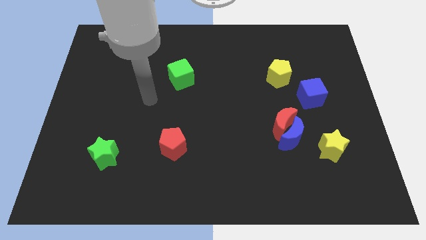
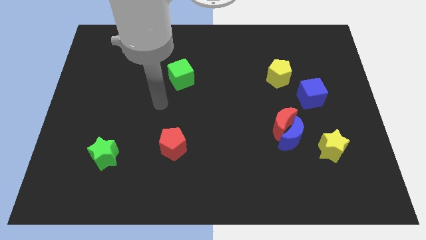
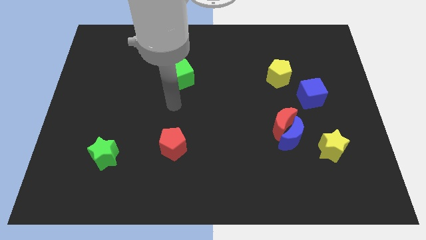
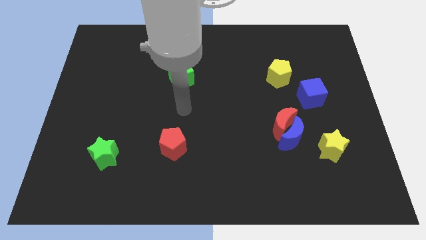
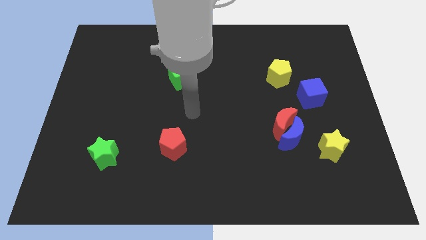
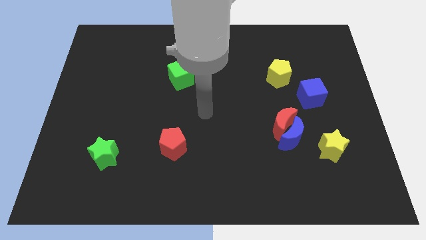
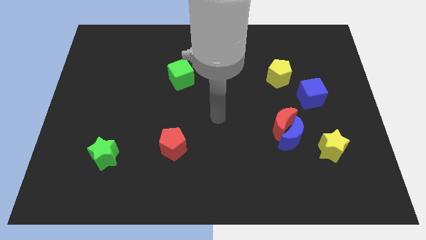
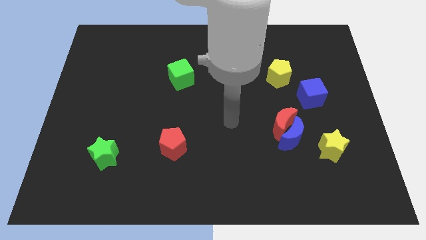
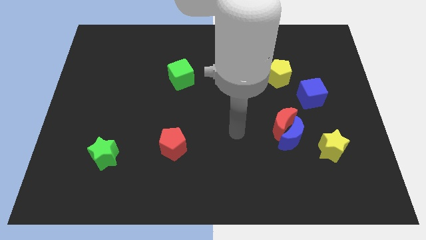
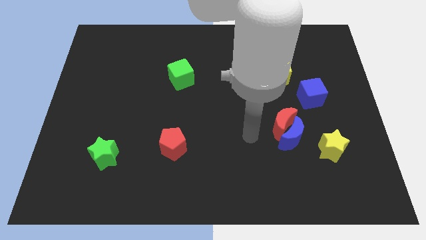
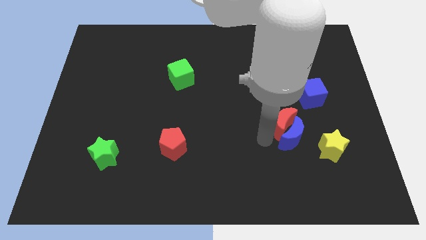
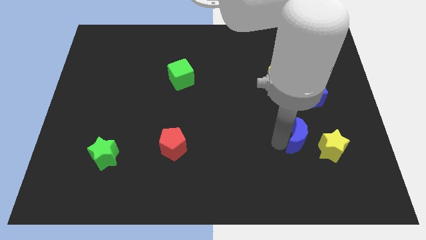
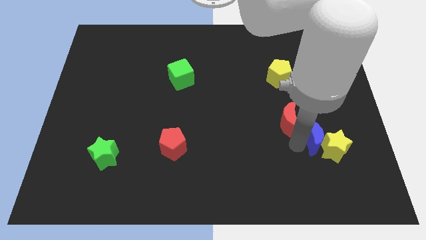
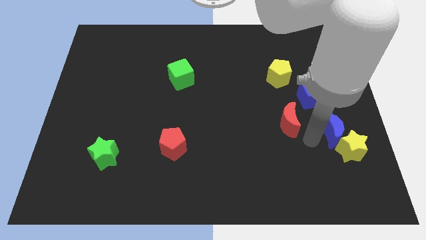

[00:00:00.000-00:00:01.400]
separate the red moon from the blue moon

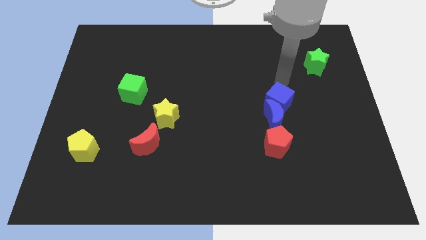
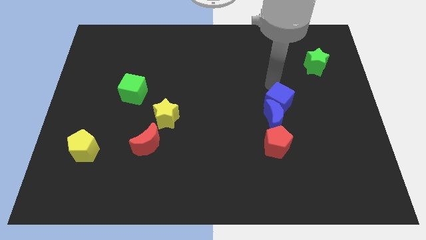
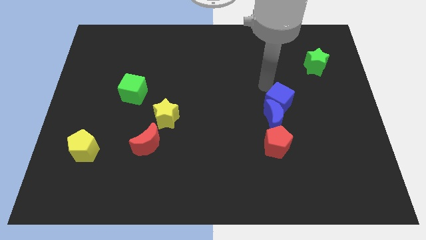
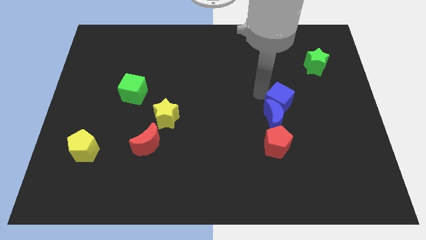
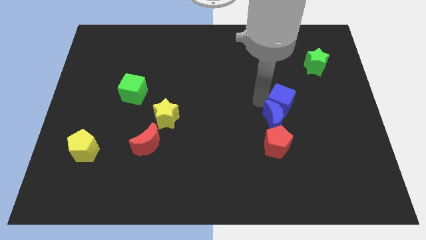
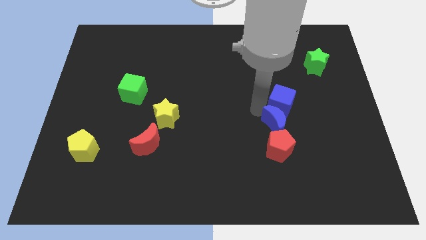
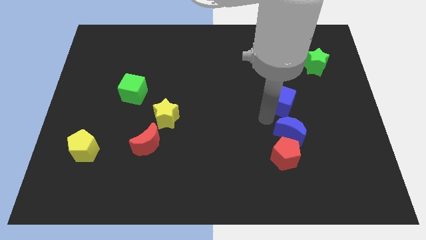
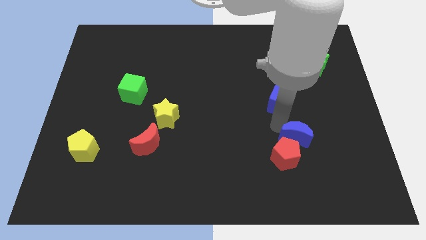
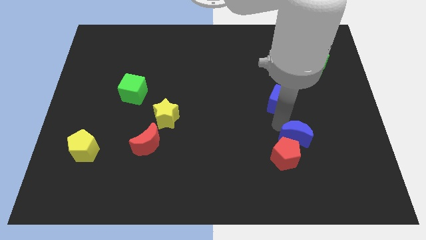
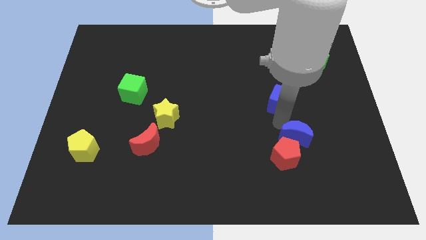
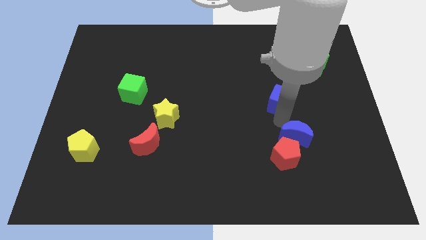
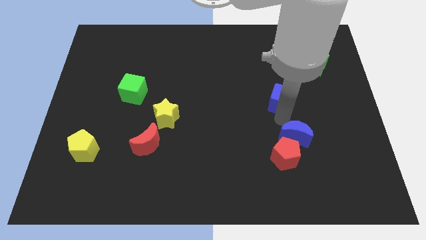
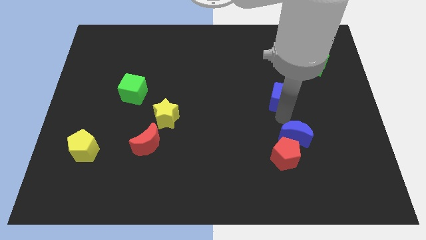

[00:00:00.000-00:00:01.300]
pull the blue cube apart from the blue moon

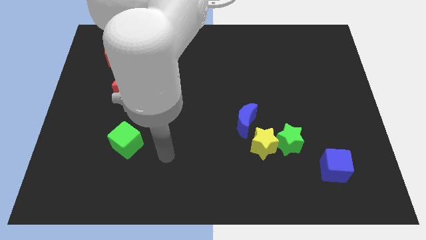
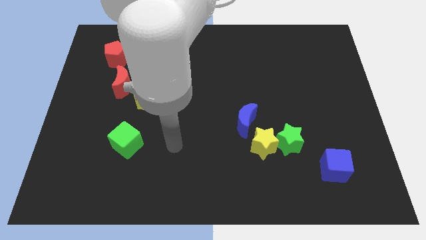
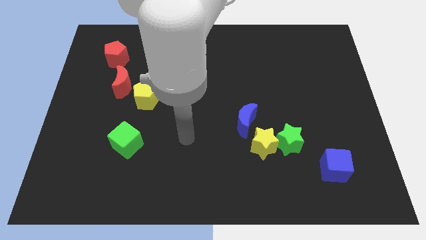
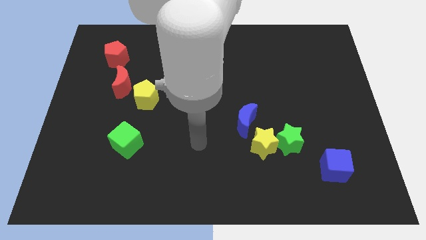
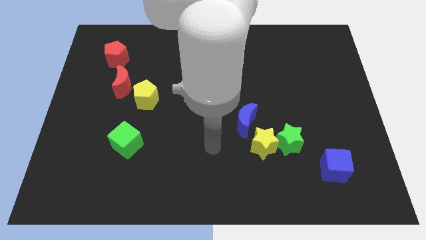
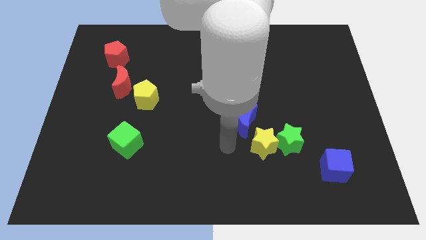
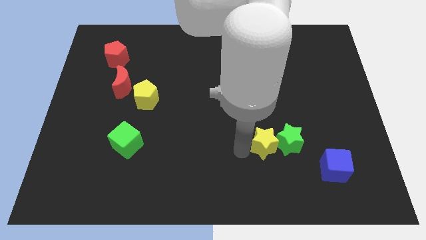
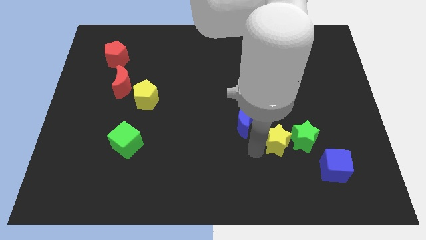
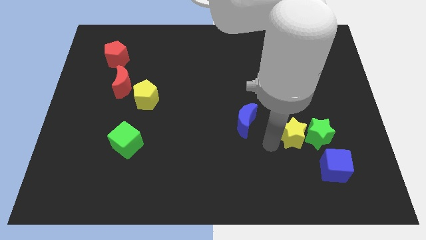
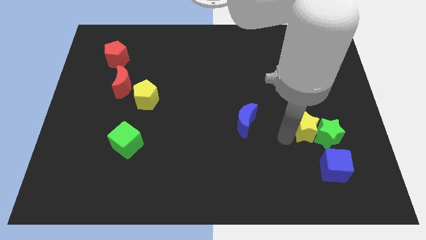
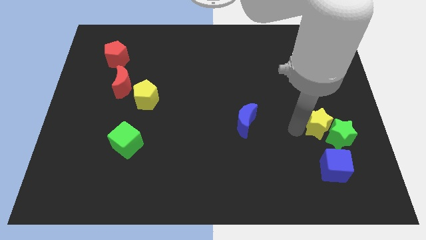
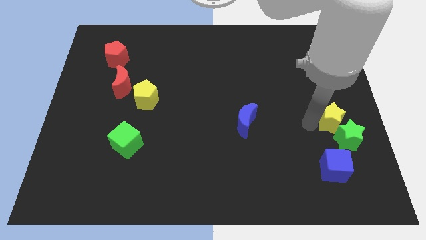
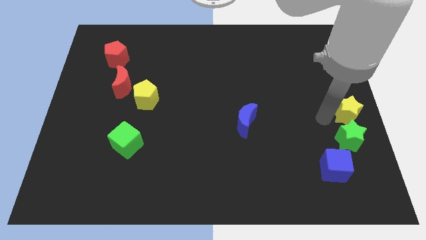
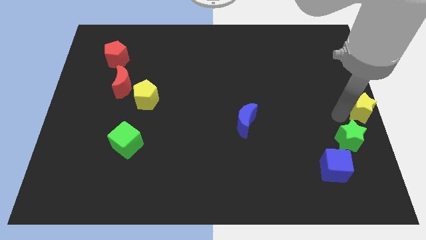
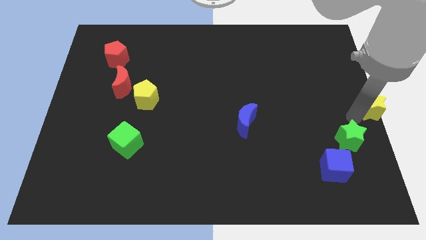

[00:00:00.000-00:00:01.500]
pull the green star apart from the yellow star

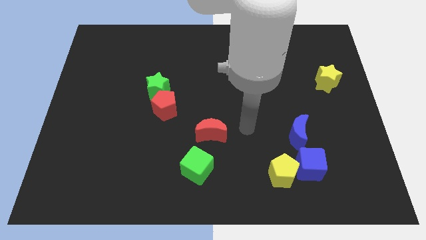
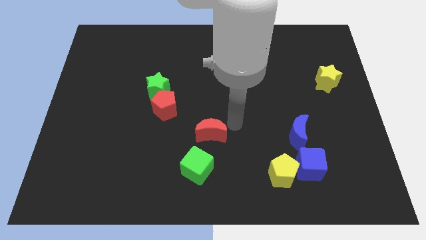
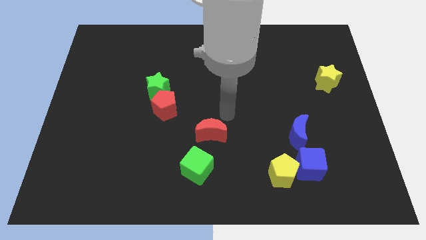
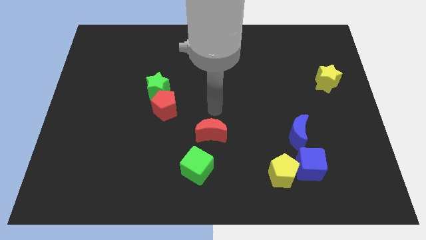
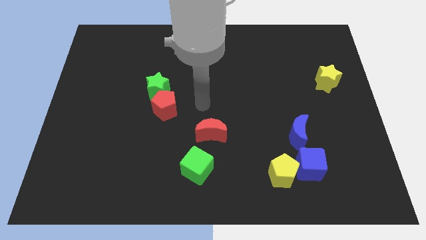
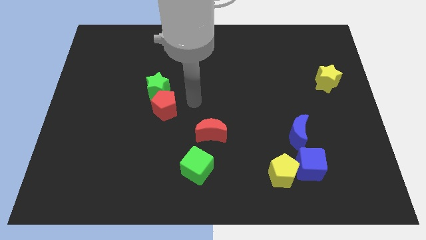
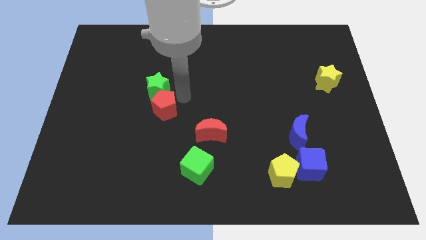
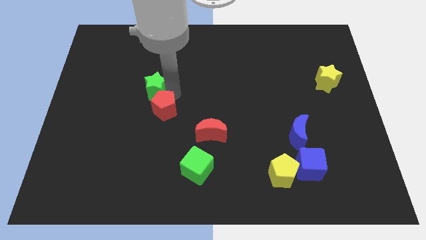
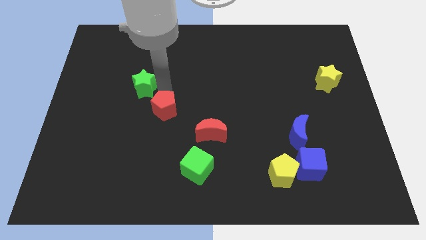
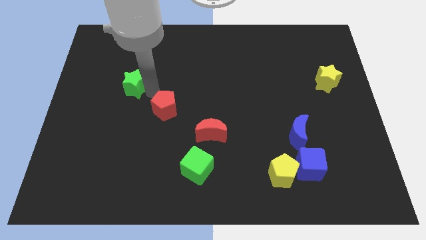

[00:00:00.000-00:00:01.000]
separate the red pentagon from the green star

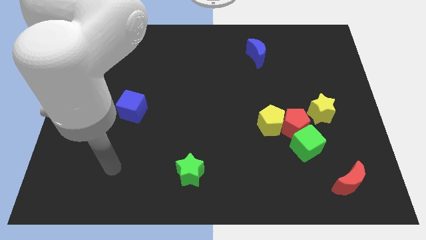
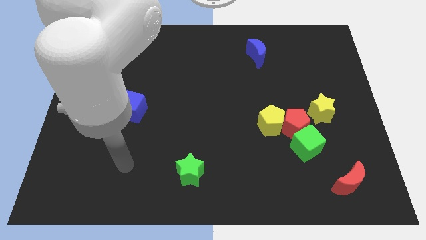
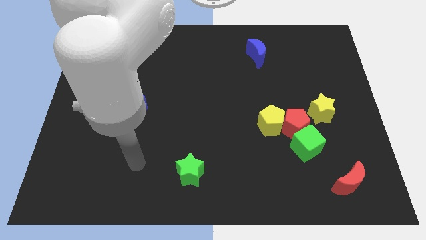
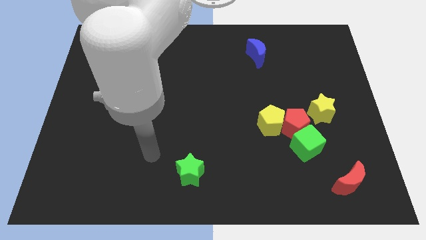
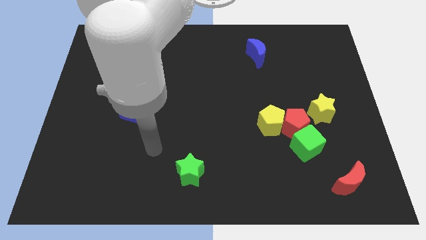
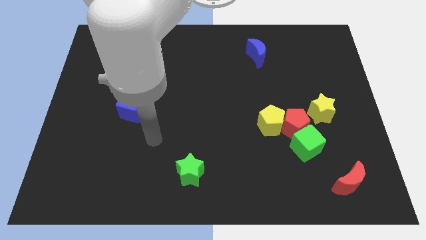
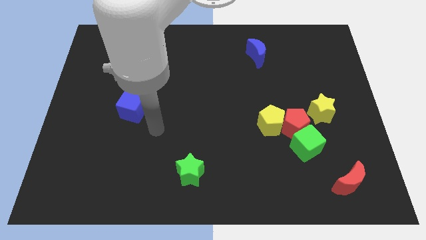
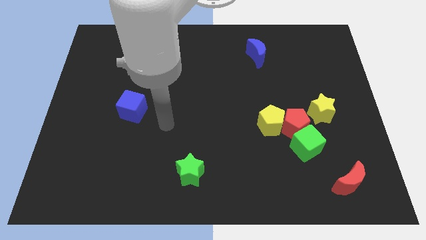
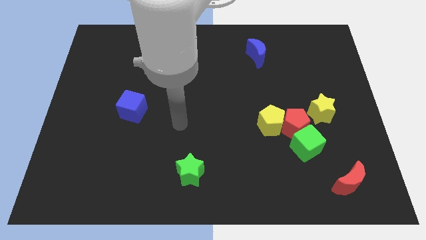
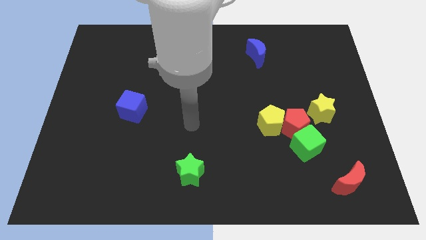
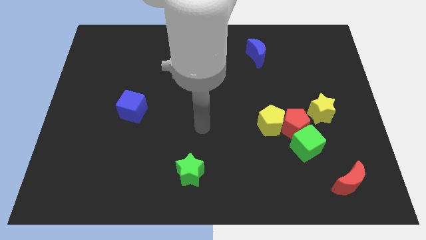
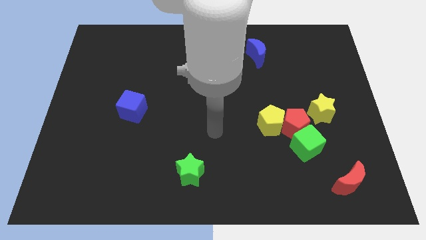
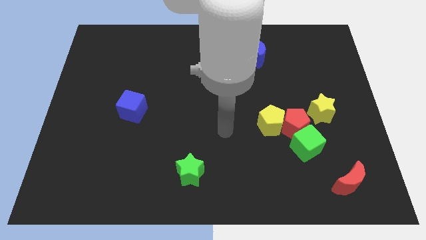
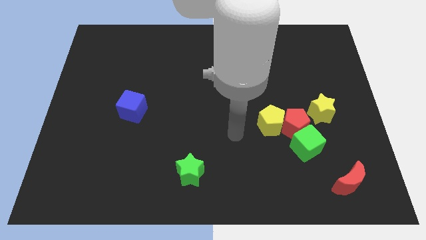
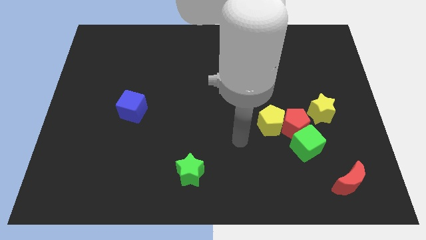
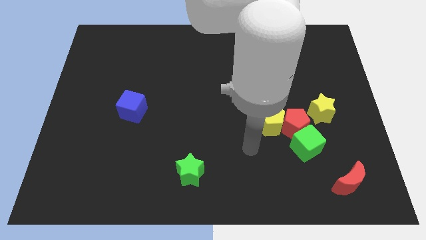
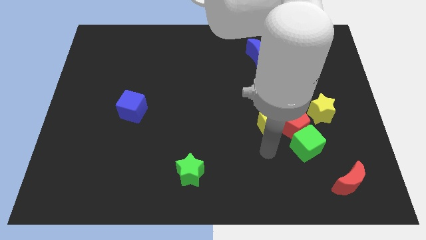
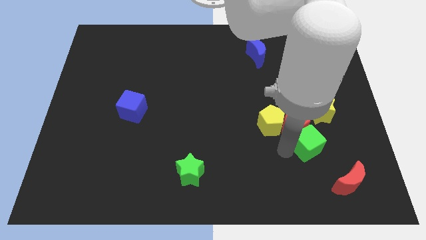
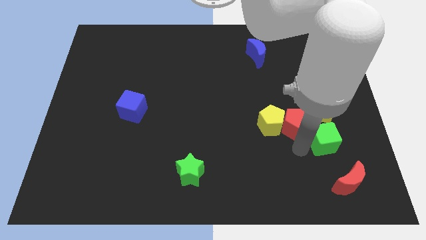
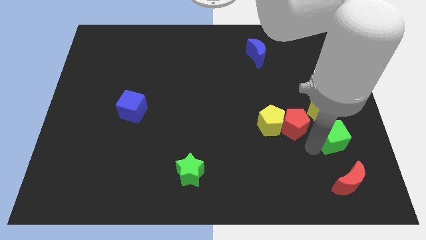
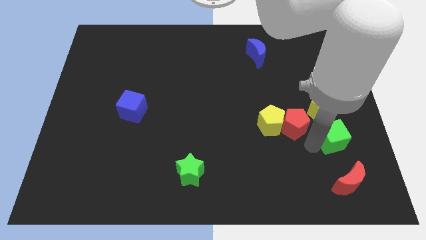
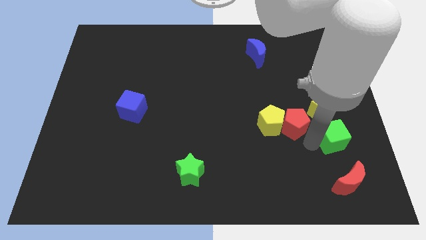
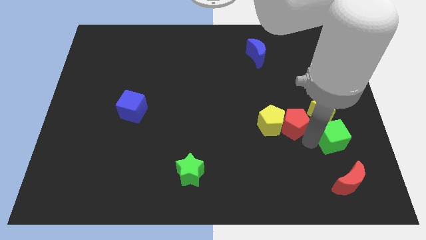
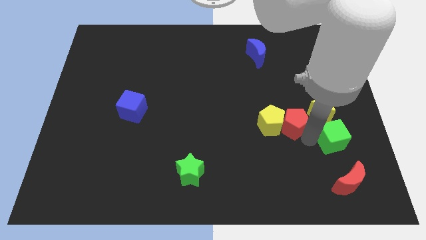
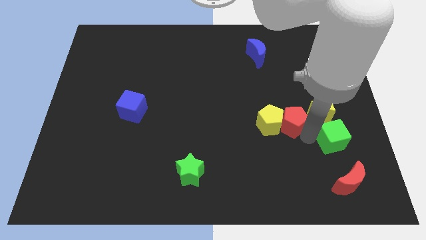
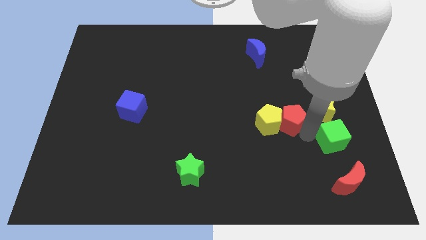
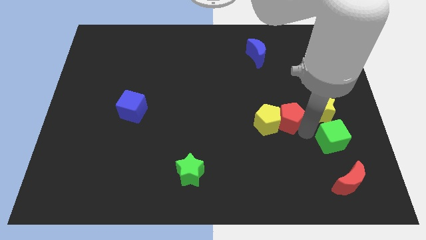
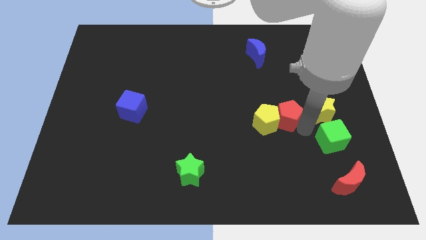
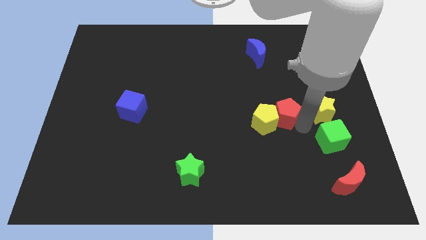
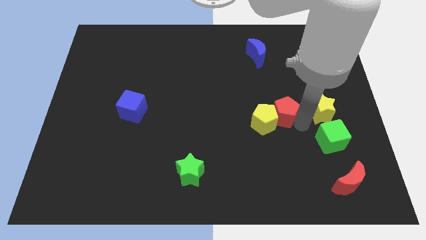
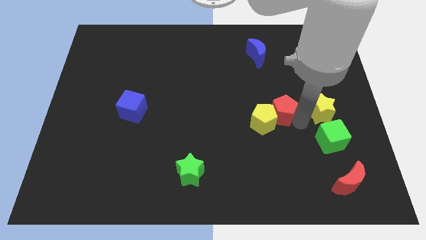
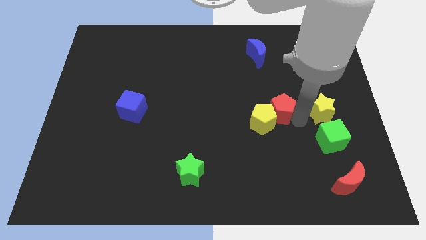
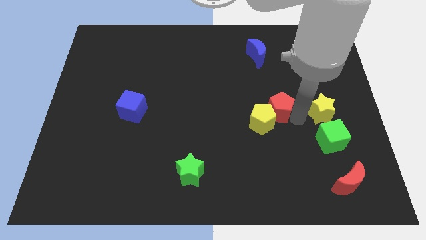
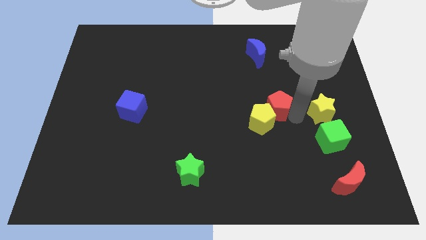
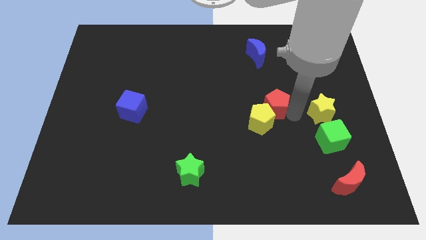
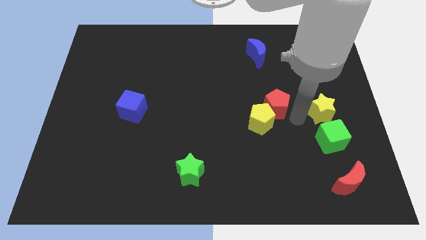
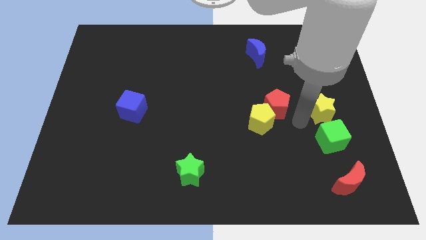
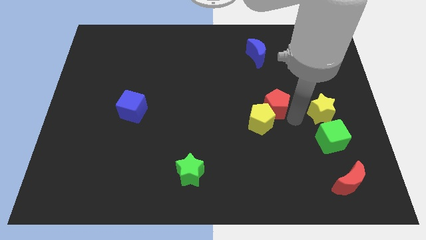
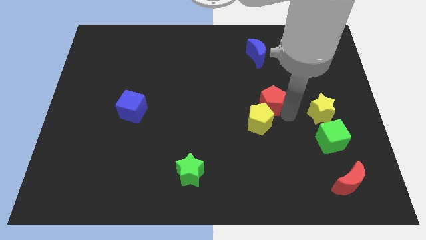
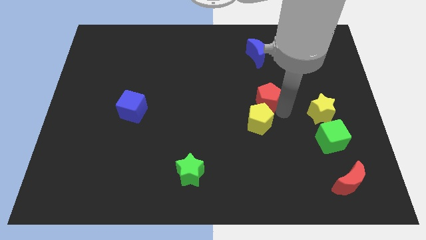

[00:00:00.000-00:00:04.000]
pull the red pentagon apart from the clump

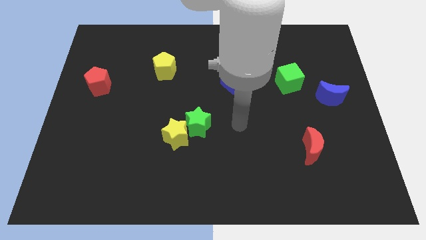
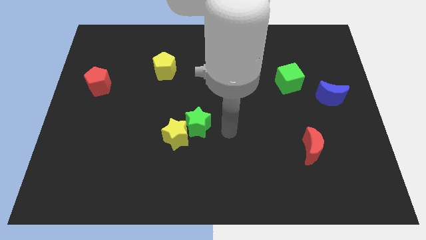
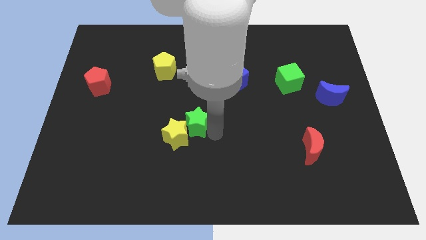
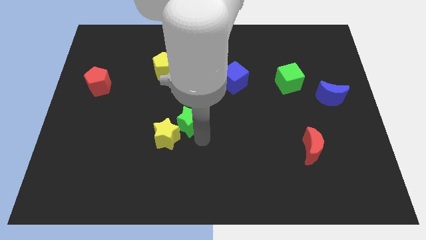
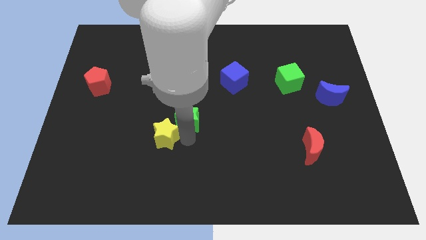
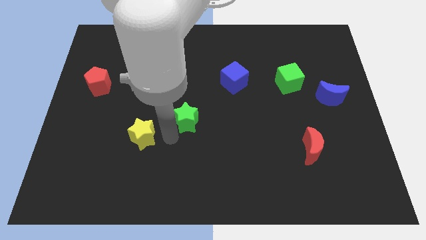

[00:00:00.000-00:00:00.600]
separate the green star from the yellow star
